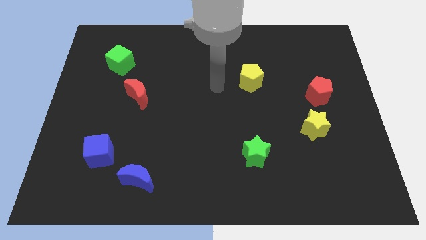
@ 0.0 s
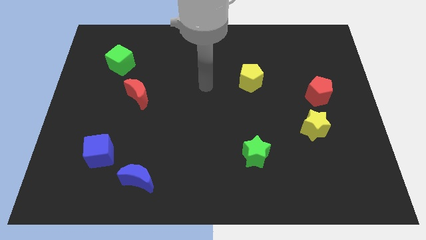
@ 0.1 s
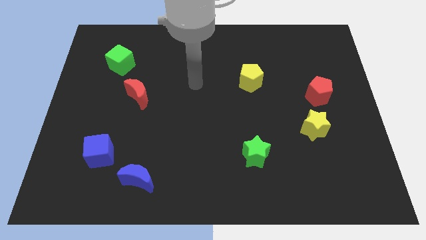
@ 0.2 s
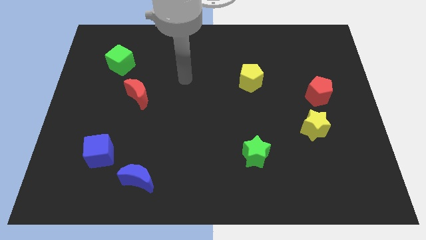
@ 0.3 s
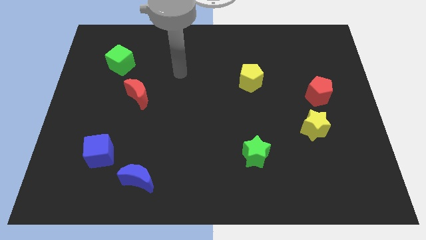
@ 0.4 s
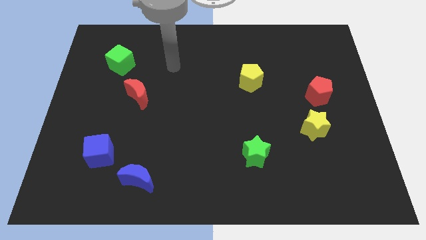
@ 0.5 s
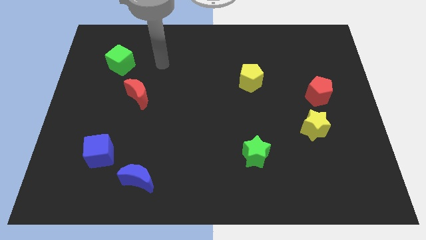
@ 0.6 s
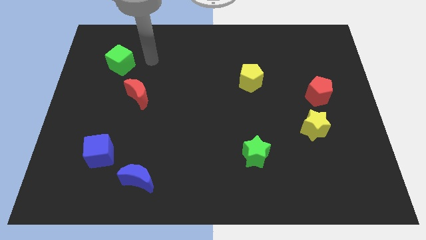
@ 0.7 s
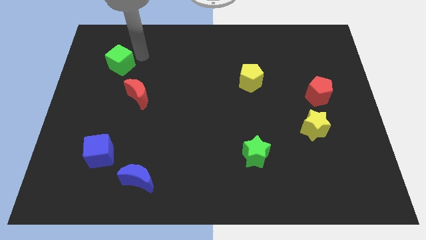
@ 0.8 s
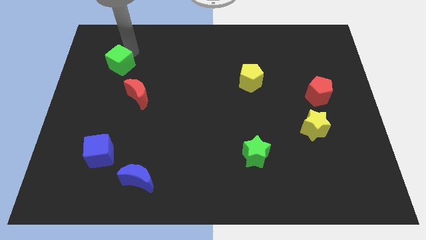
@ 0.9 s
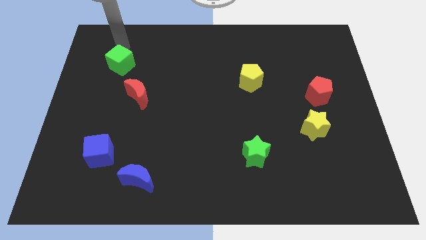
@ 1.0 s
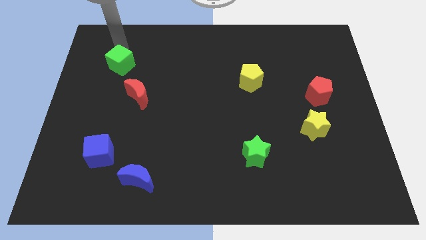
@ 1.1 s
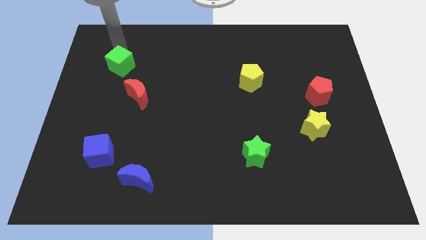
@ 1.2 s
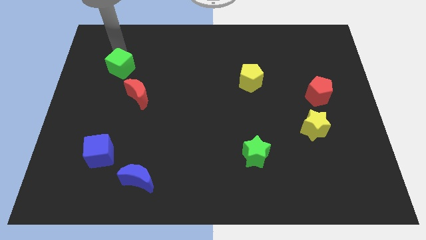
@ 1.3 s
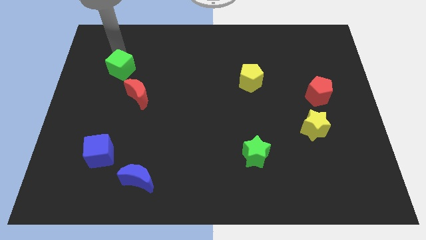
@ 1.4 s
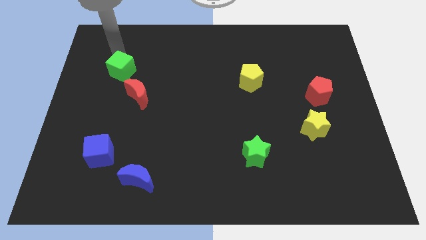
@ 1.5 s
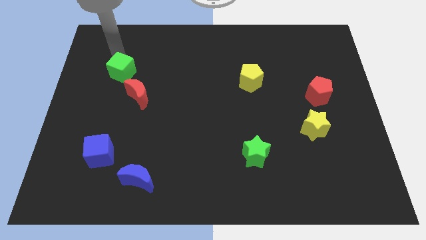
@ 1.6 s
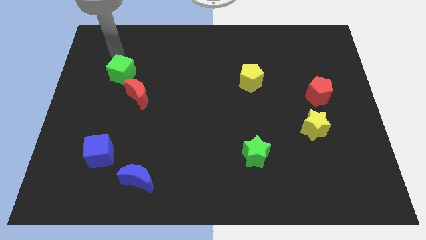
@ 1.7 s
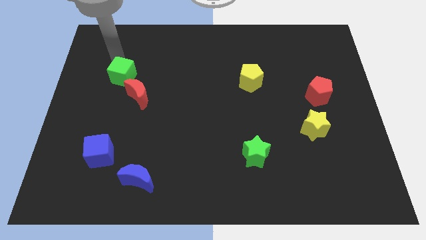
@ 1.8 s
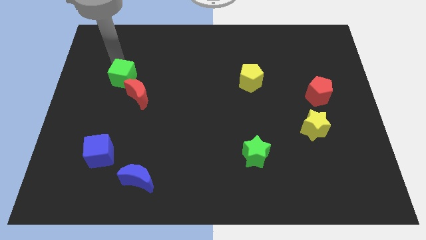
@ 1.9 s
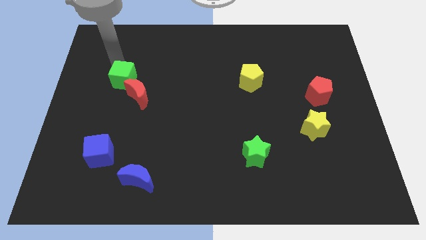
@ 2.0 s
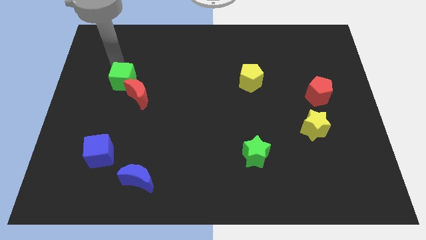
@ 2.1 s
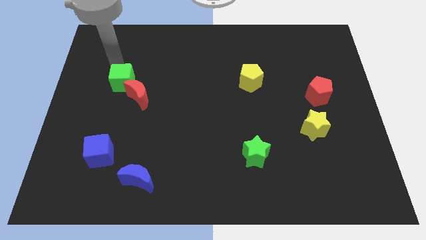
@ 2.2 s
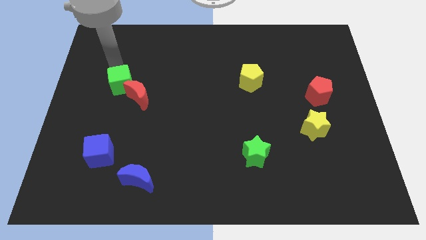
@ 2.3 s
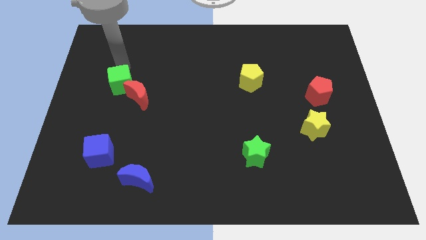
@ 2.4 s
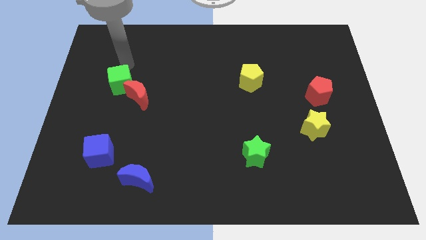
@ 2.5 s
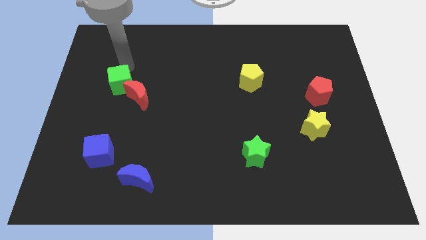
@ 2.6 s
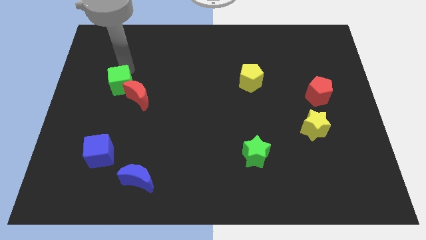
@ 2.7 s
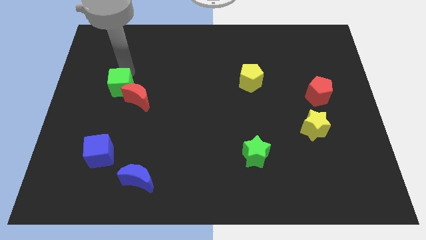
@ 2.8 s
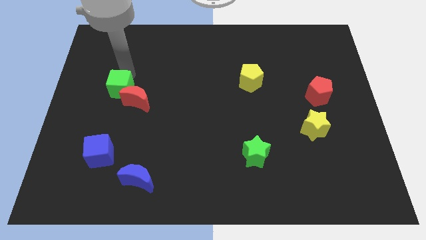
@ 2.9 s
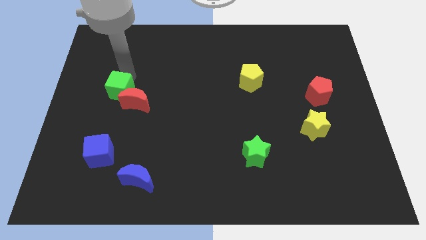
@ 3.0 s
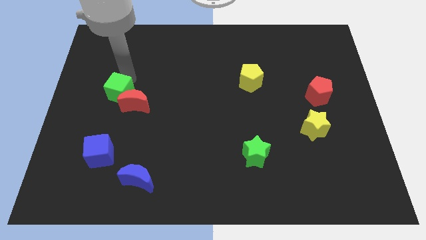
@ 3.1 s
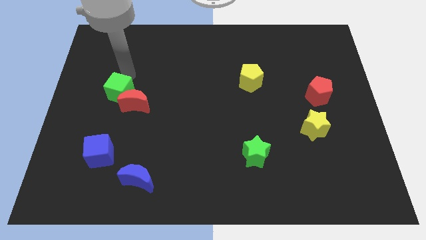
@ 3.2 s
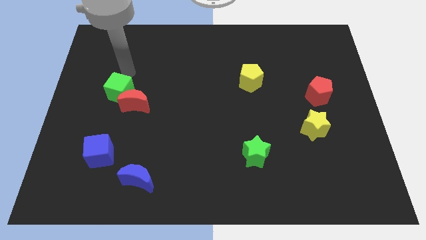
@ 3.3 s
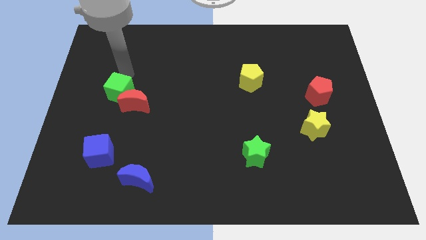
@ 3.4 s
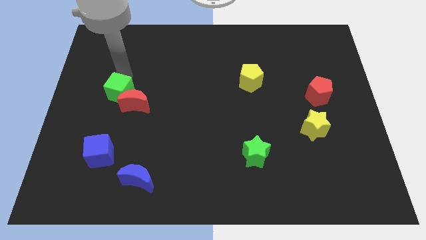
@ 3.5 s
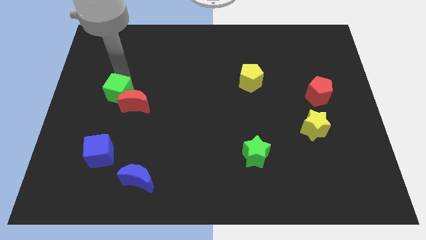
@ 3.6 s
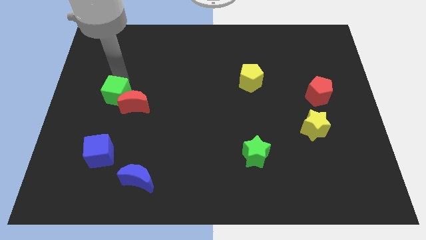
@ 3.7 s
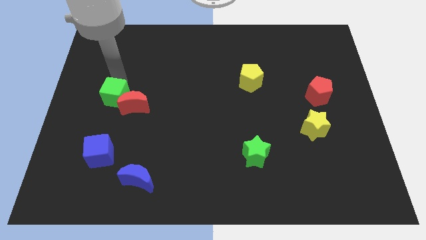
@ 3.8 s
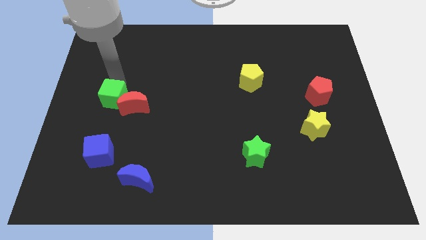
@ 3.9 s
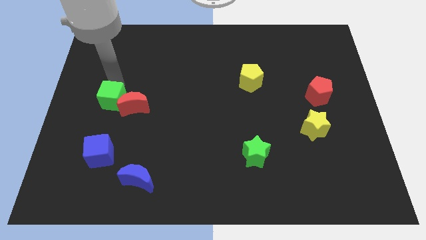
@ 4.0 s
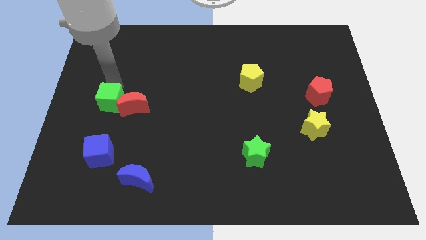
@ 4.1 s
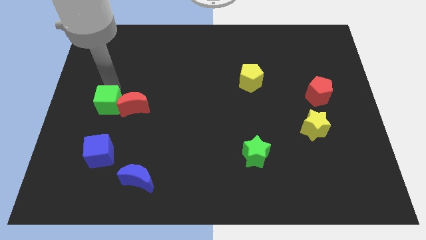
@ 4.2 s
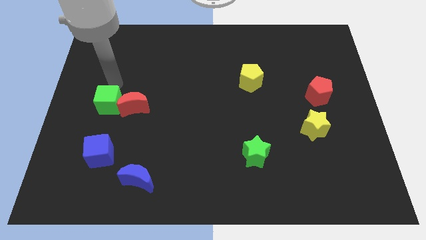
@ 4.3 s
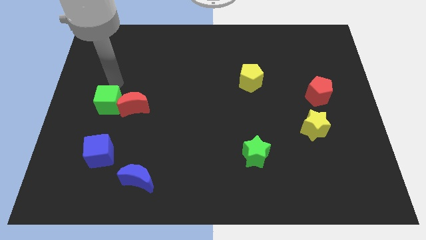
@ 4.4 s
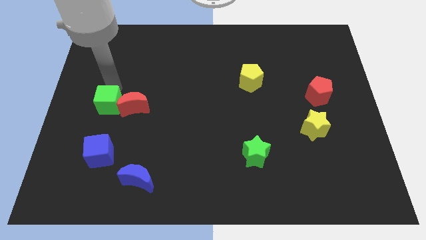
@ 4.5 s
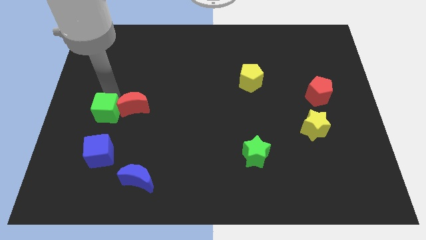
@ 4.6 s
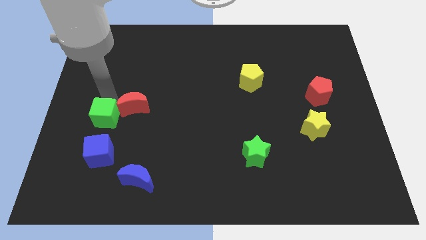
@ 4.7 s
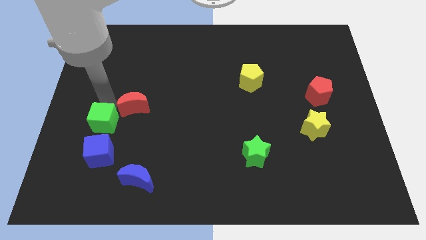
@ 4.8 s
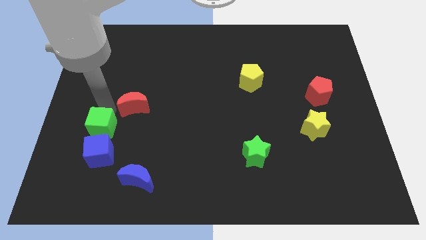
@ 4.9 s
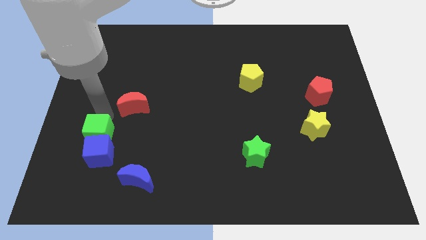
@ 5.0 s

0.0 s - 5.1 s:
put the green cube towards the blue cube

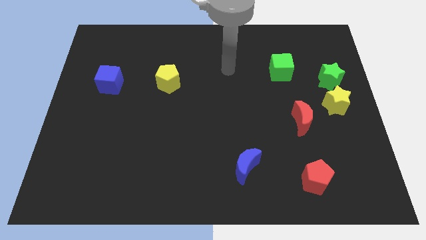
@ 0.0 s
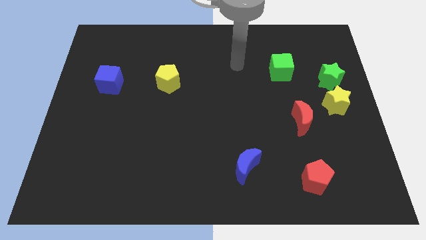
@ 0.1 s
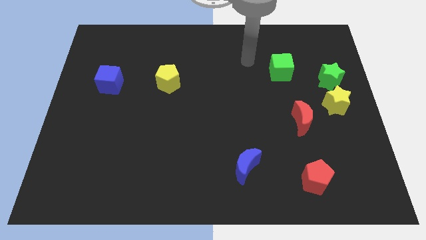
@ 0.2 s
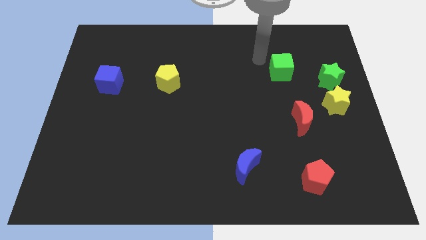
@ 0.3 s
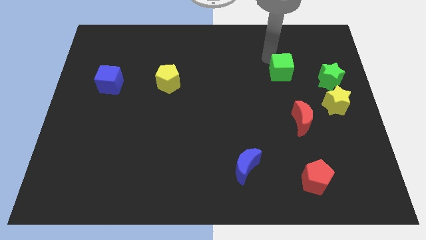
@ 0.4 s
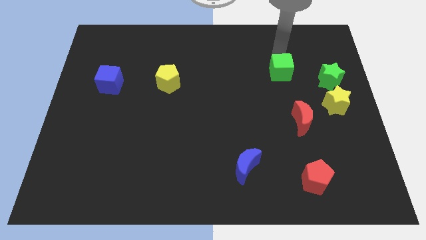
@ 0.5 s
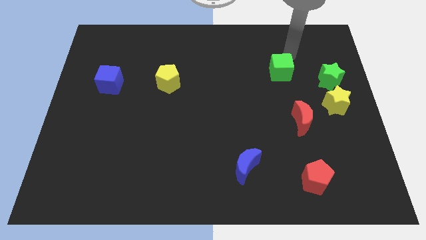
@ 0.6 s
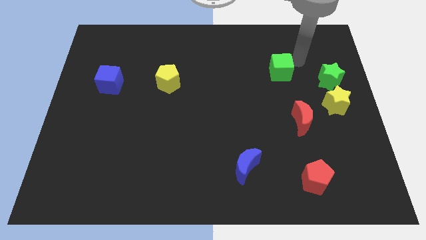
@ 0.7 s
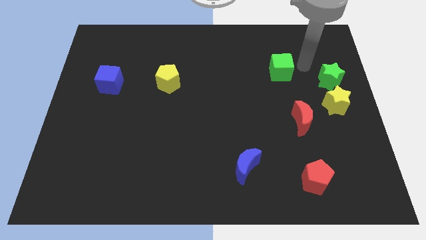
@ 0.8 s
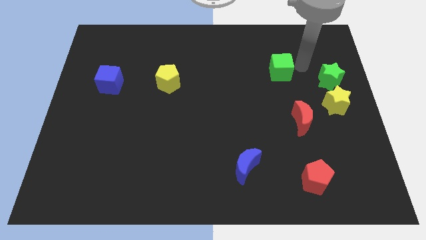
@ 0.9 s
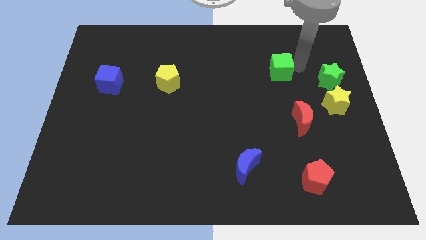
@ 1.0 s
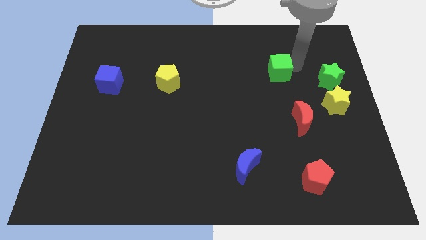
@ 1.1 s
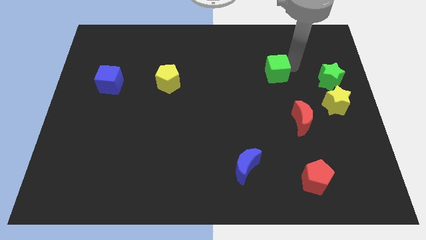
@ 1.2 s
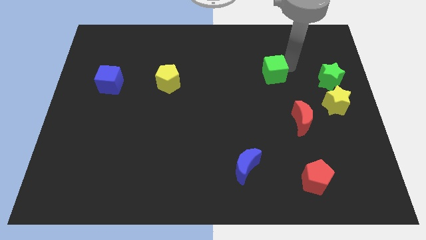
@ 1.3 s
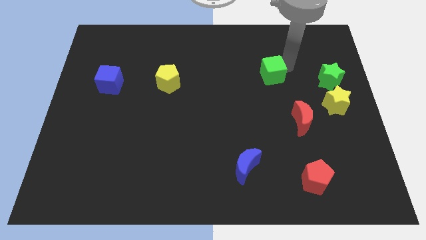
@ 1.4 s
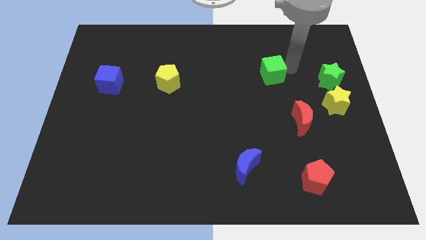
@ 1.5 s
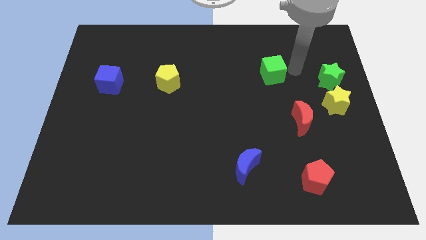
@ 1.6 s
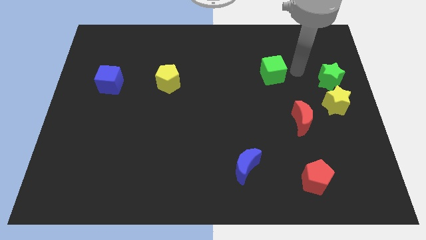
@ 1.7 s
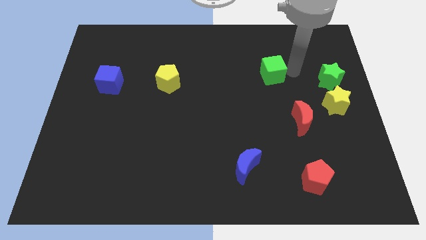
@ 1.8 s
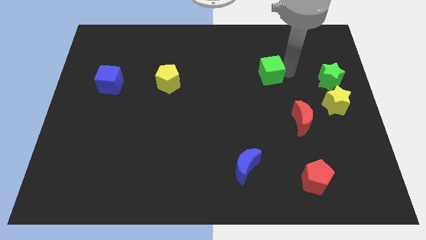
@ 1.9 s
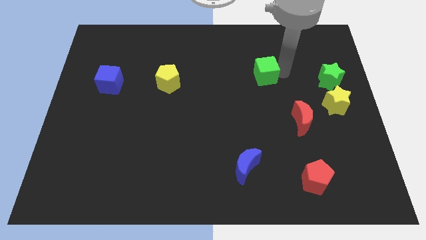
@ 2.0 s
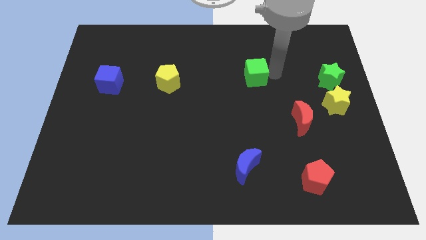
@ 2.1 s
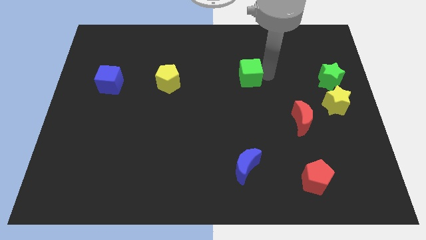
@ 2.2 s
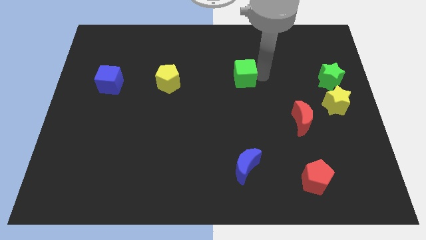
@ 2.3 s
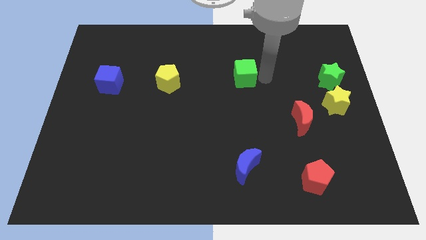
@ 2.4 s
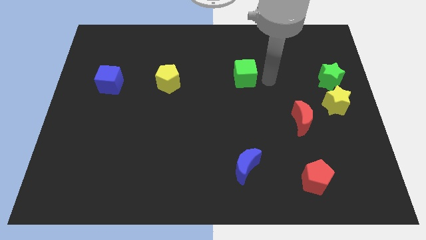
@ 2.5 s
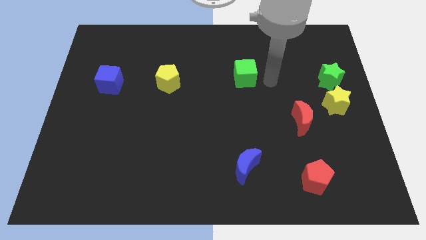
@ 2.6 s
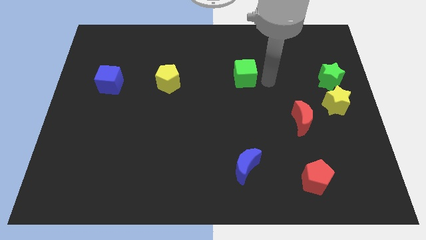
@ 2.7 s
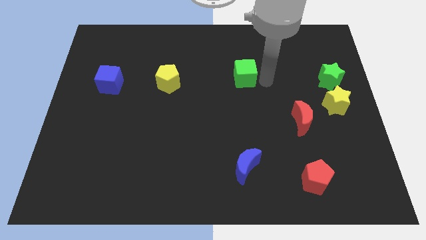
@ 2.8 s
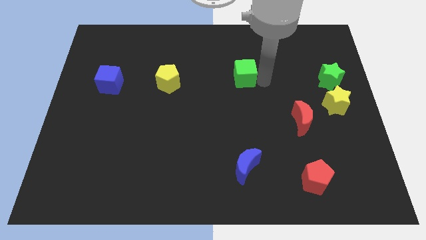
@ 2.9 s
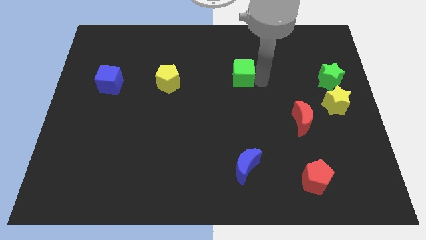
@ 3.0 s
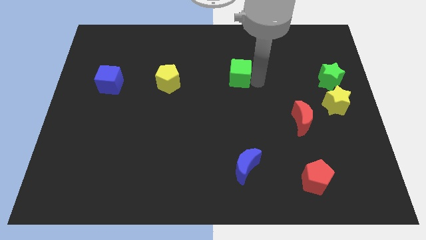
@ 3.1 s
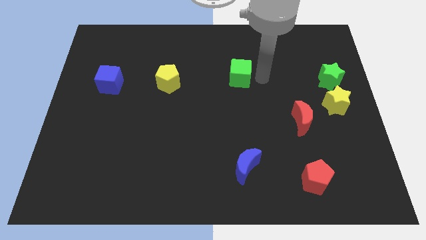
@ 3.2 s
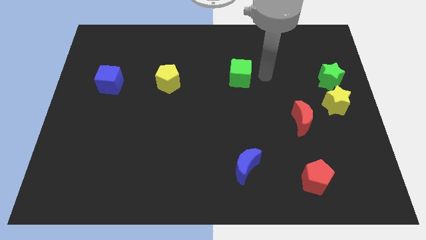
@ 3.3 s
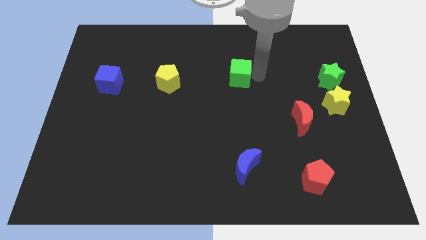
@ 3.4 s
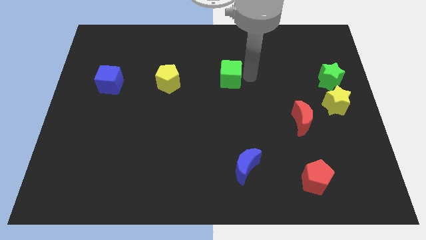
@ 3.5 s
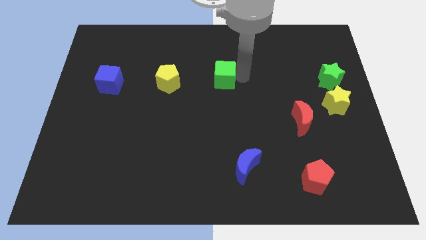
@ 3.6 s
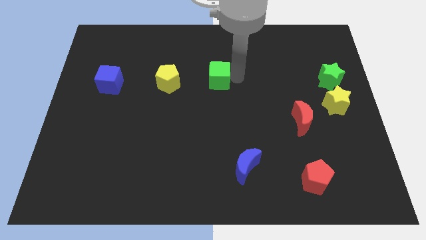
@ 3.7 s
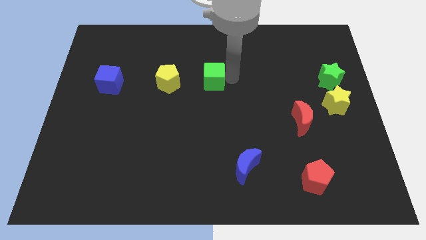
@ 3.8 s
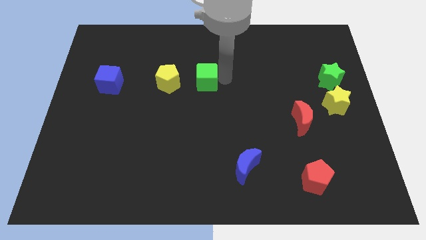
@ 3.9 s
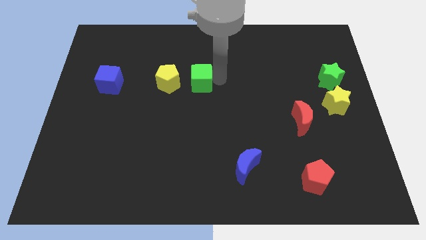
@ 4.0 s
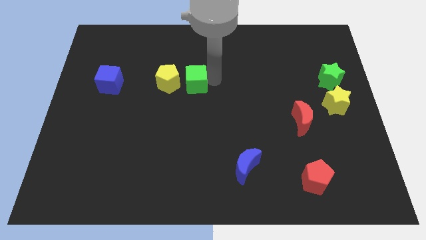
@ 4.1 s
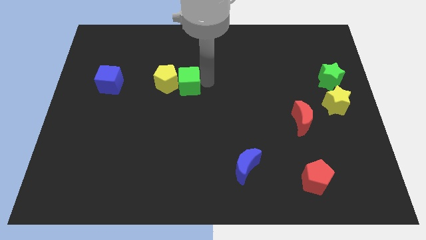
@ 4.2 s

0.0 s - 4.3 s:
push the green cube next to the yellow pentagon
